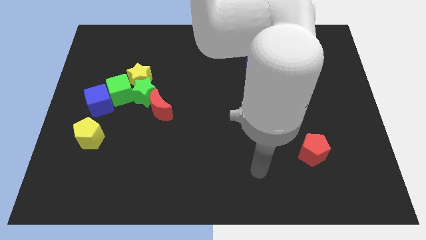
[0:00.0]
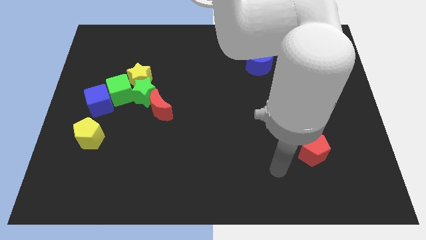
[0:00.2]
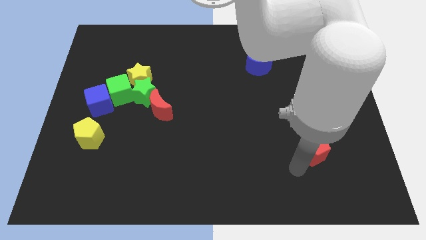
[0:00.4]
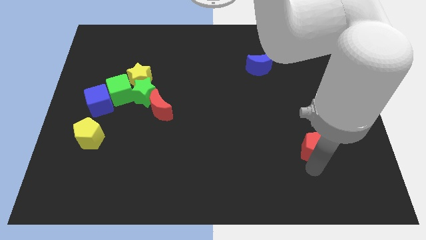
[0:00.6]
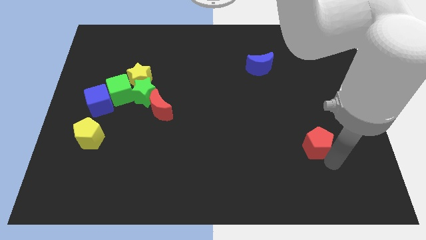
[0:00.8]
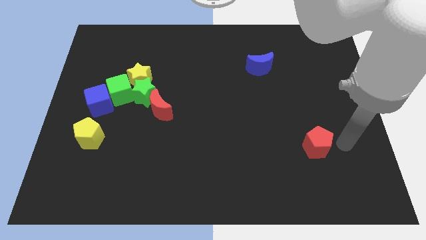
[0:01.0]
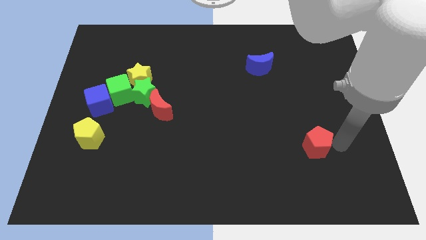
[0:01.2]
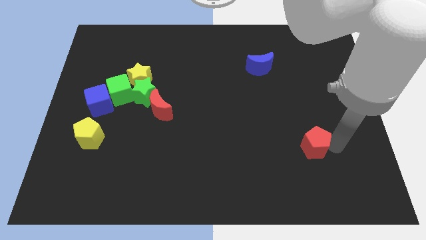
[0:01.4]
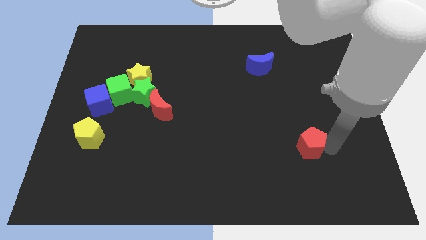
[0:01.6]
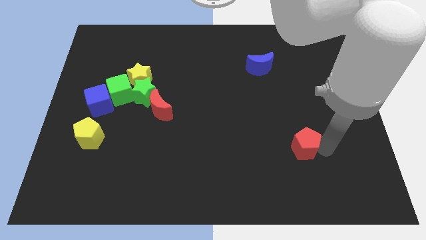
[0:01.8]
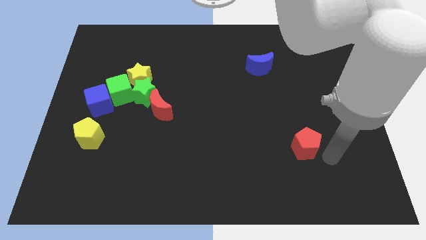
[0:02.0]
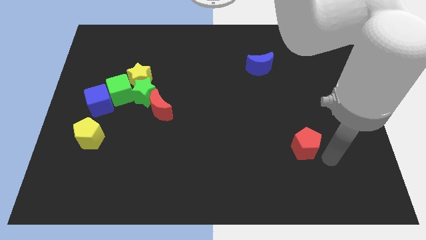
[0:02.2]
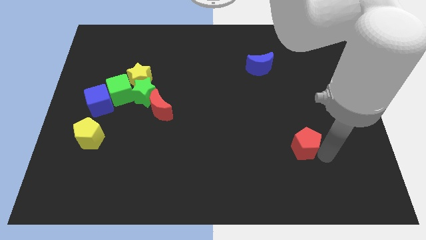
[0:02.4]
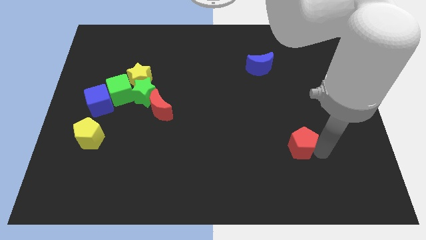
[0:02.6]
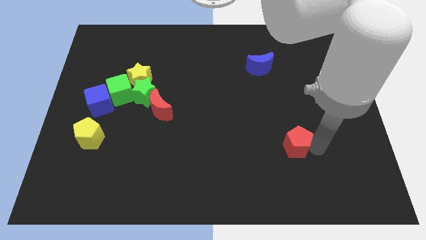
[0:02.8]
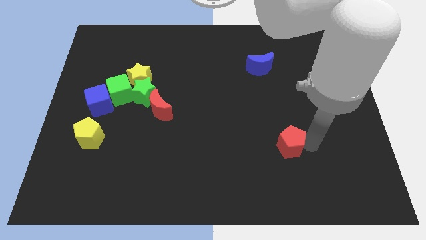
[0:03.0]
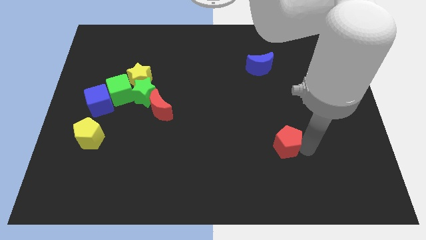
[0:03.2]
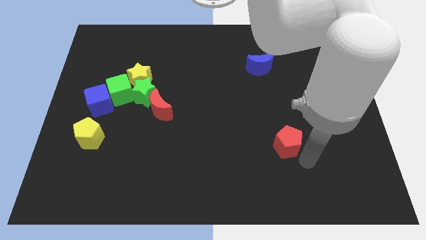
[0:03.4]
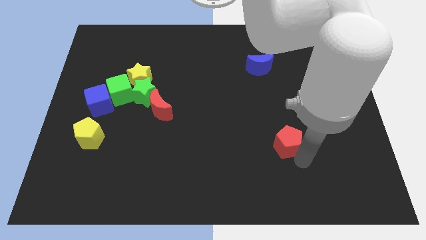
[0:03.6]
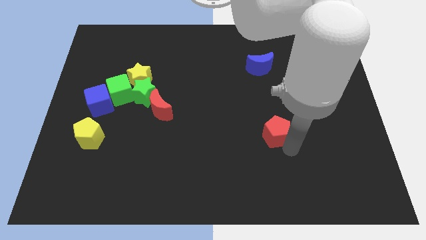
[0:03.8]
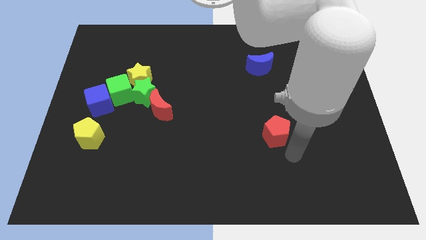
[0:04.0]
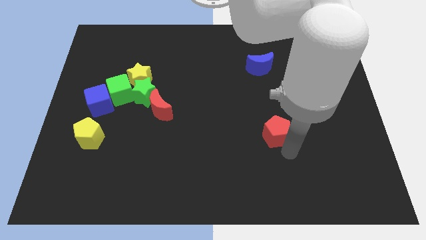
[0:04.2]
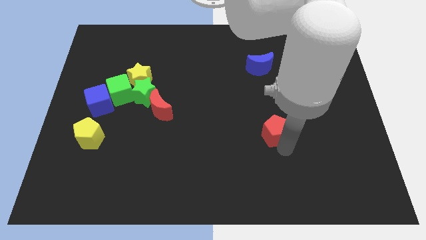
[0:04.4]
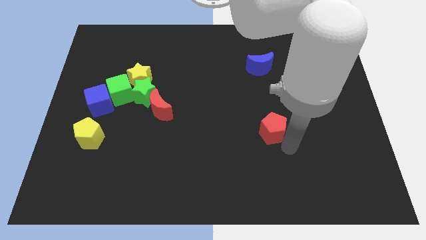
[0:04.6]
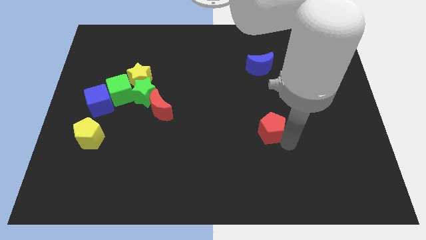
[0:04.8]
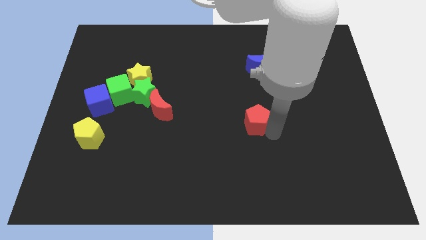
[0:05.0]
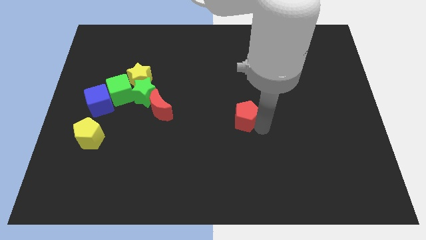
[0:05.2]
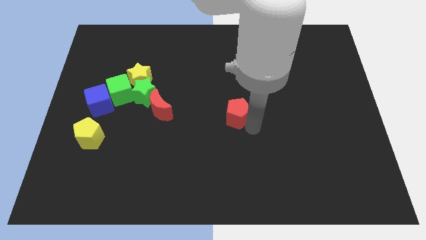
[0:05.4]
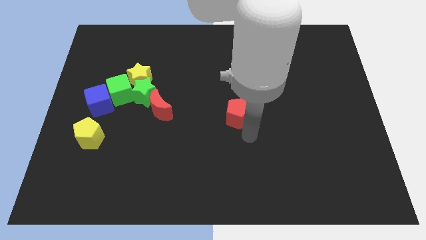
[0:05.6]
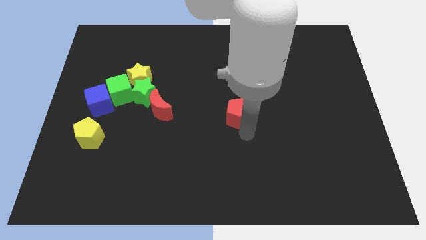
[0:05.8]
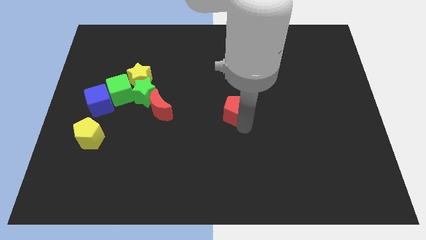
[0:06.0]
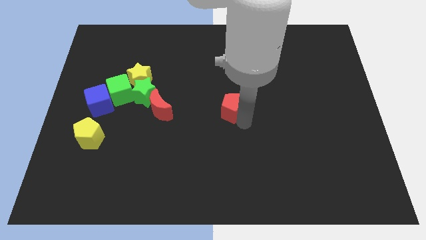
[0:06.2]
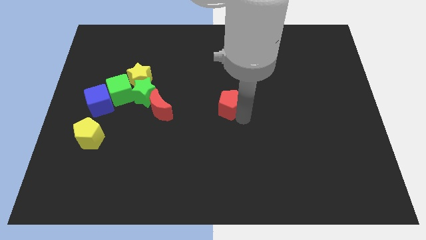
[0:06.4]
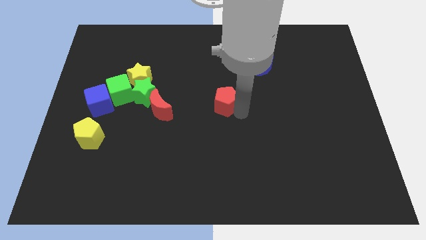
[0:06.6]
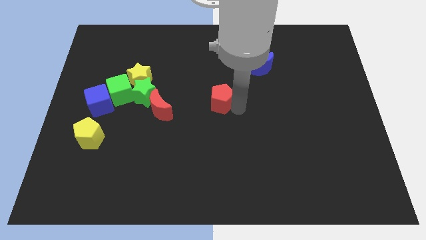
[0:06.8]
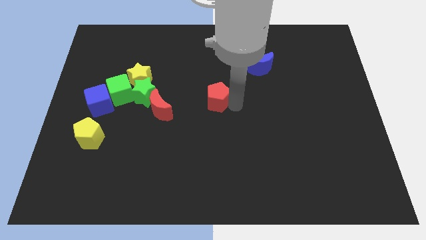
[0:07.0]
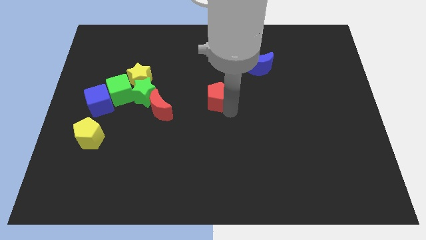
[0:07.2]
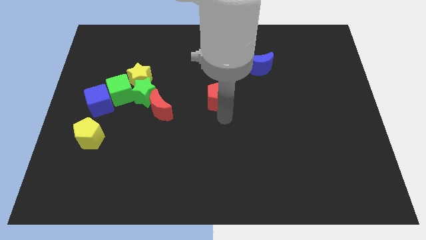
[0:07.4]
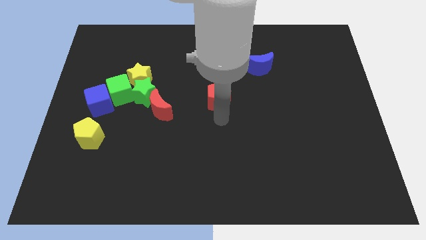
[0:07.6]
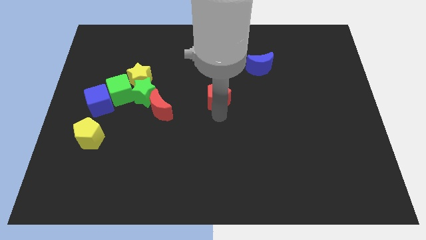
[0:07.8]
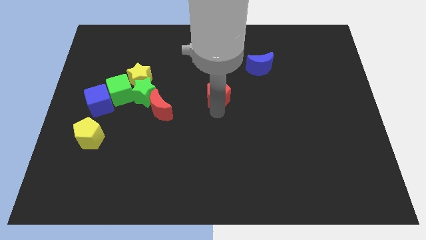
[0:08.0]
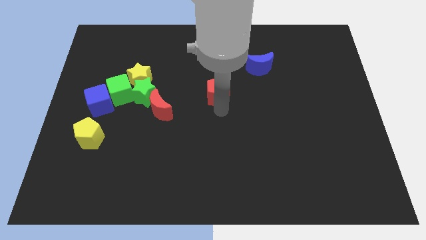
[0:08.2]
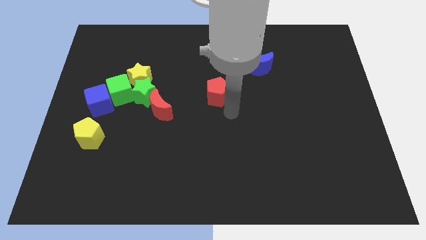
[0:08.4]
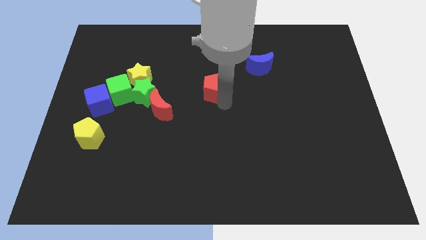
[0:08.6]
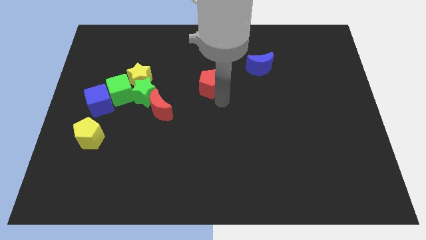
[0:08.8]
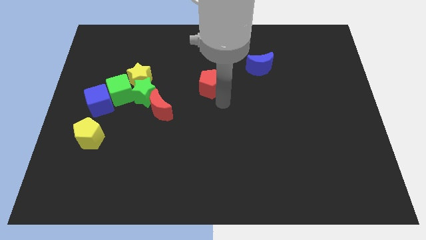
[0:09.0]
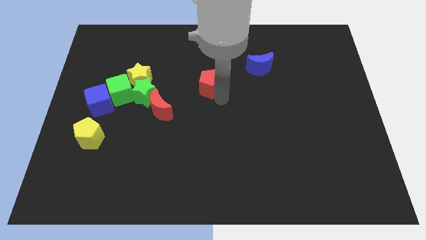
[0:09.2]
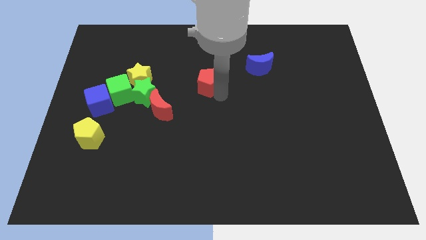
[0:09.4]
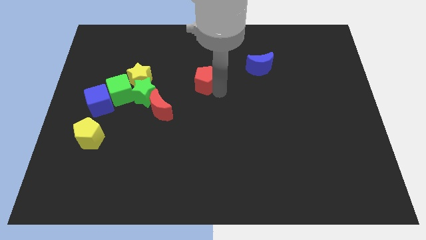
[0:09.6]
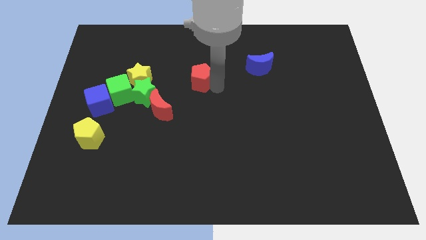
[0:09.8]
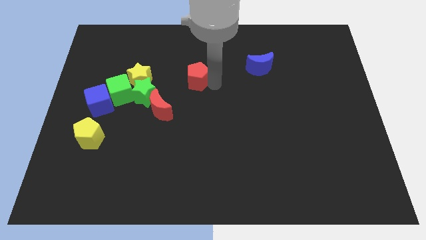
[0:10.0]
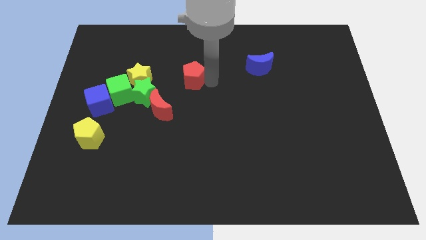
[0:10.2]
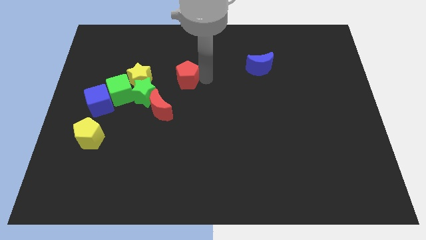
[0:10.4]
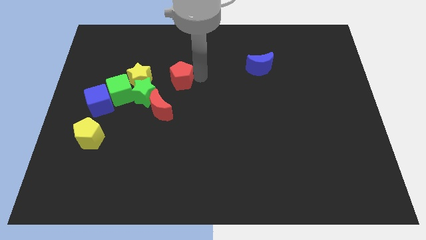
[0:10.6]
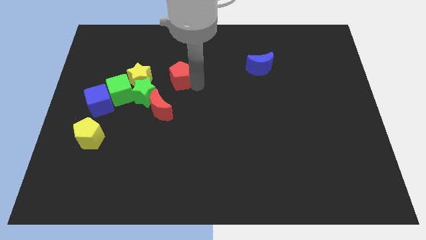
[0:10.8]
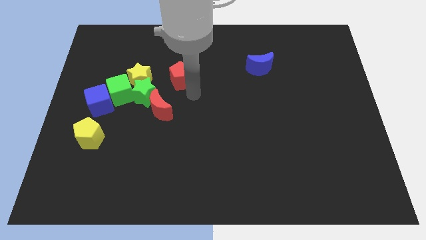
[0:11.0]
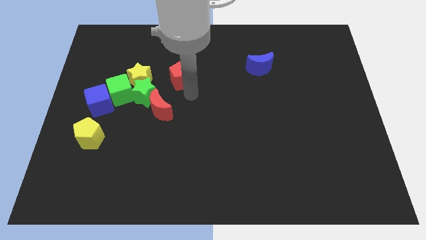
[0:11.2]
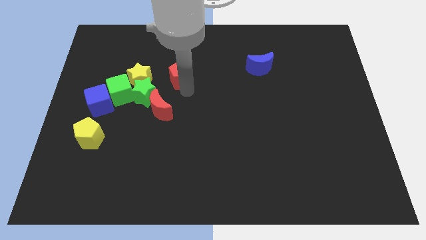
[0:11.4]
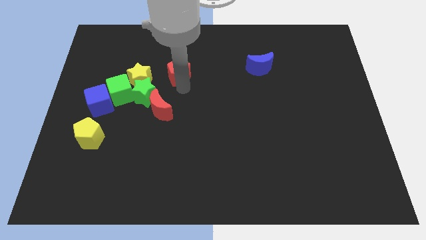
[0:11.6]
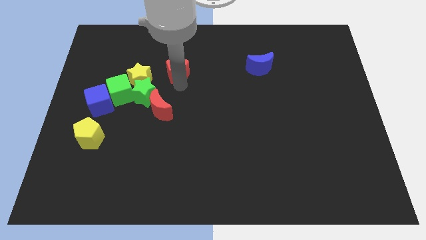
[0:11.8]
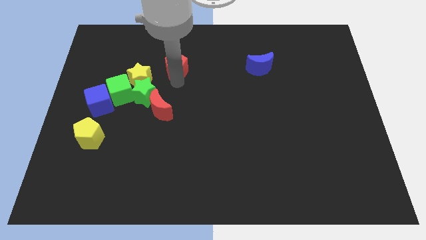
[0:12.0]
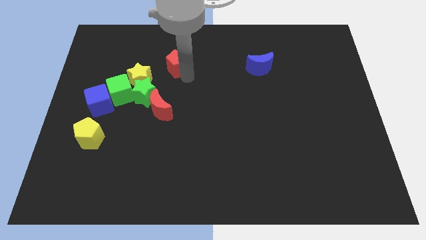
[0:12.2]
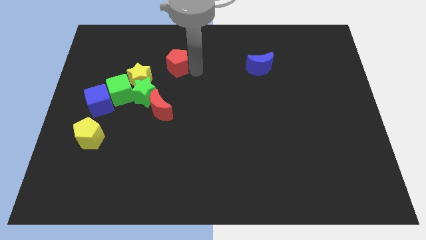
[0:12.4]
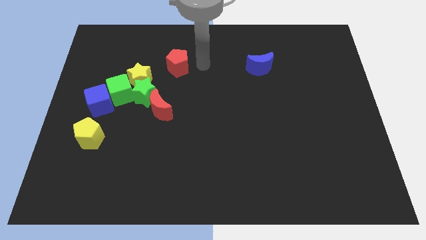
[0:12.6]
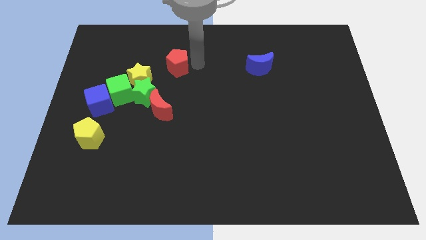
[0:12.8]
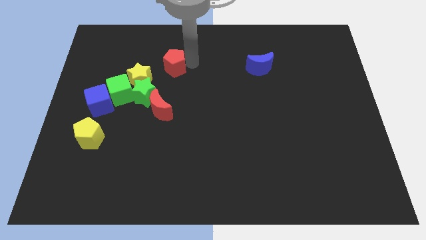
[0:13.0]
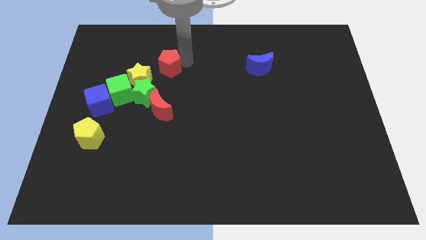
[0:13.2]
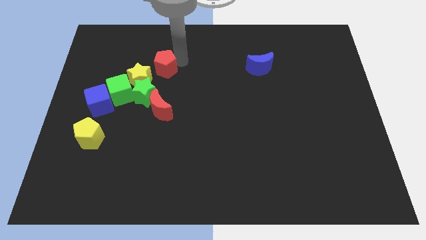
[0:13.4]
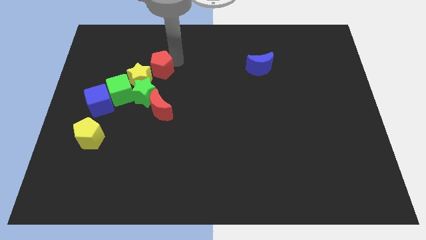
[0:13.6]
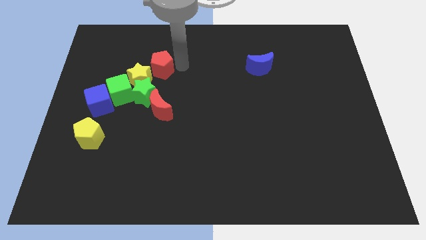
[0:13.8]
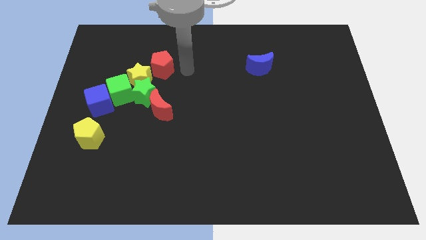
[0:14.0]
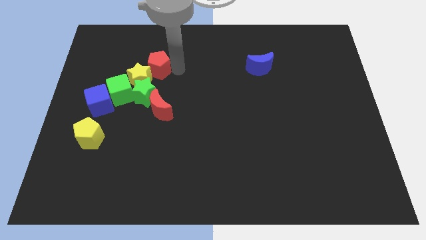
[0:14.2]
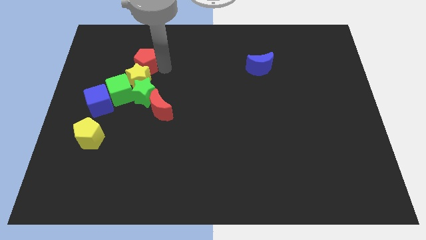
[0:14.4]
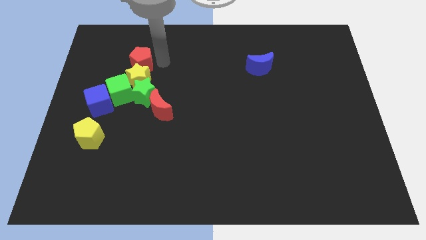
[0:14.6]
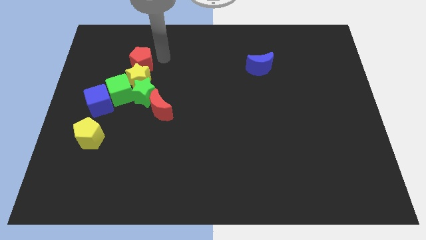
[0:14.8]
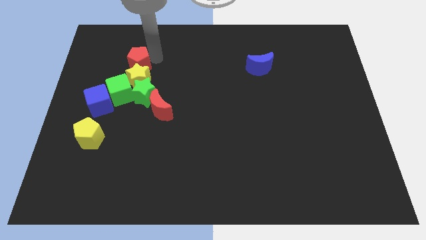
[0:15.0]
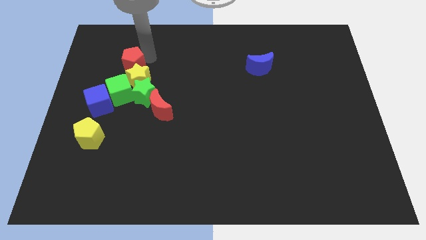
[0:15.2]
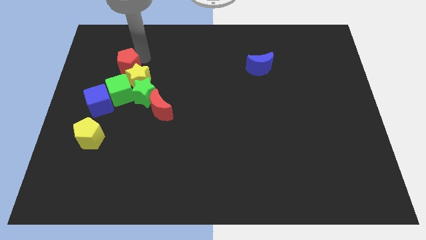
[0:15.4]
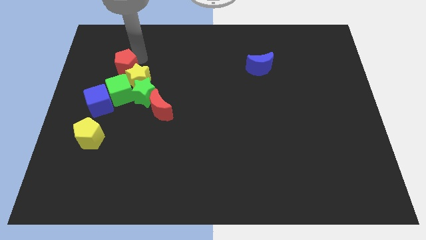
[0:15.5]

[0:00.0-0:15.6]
push the red pentagon to the top side of the blue cube

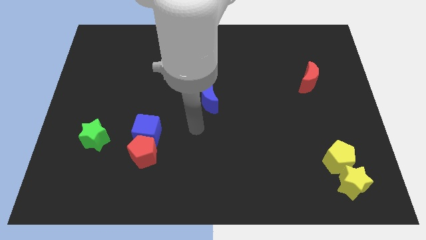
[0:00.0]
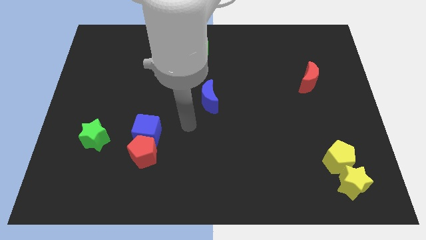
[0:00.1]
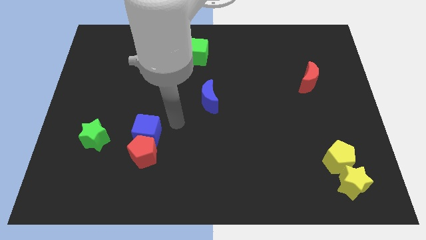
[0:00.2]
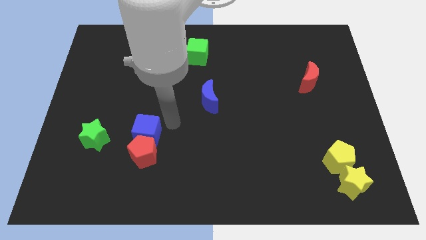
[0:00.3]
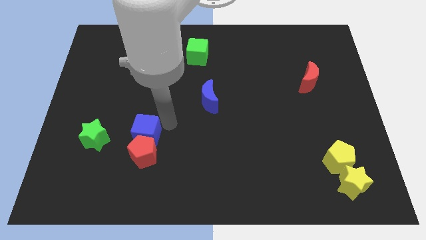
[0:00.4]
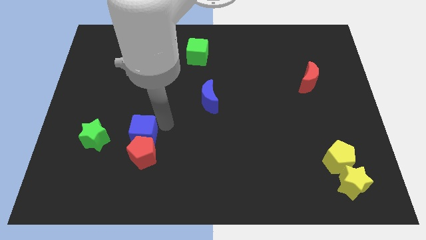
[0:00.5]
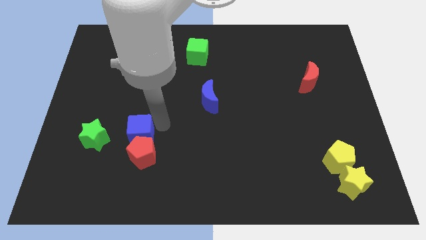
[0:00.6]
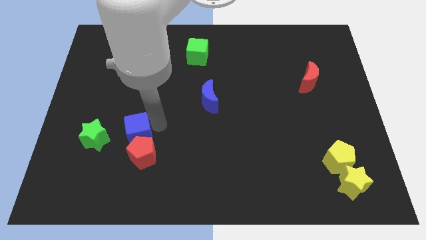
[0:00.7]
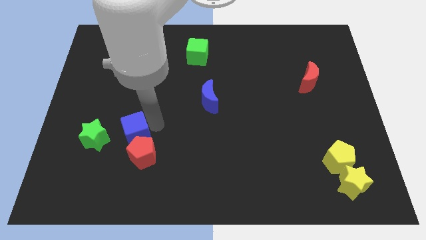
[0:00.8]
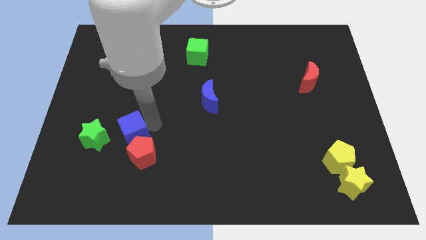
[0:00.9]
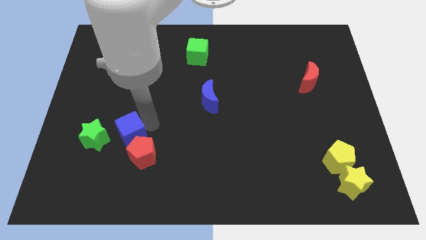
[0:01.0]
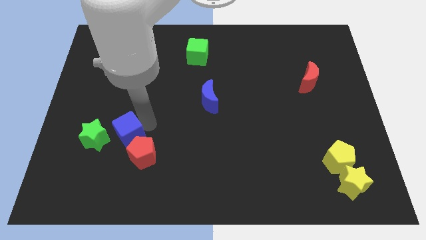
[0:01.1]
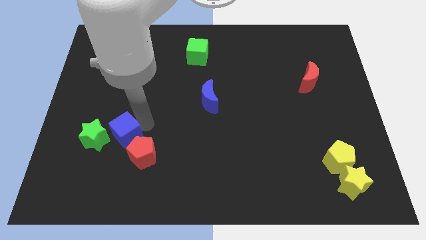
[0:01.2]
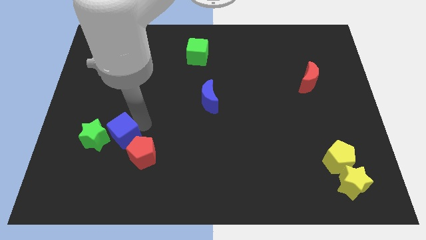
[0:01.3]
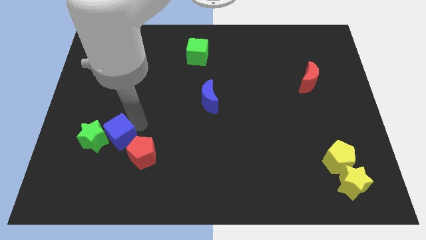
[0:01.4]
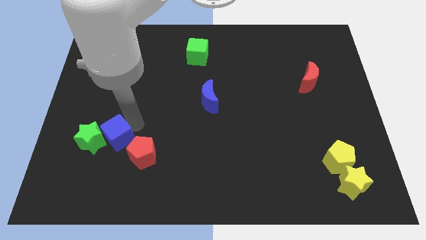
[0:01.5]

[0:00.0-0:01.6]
push the blue cube just left of the red pentagon
